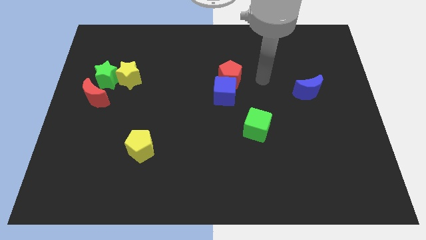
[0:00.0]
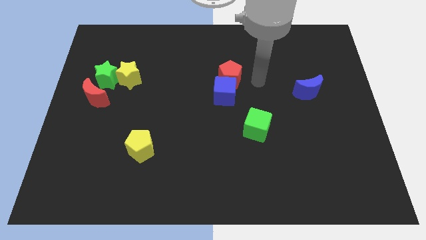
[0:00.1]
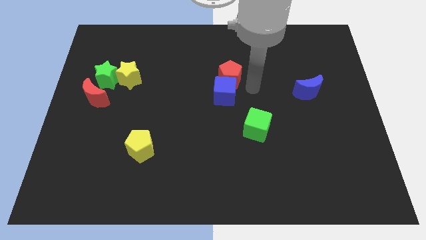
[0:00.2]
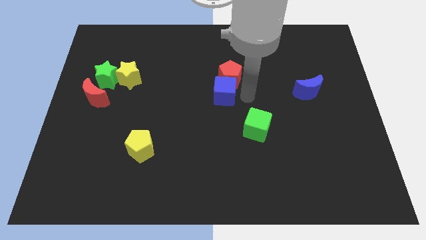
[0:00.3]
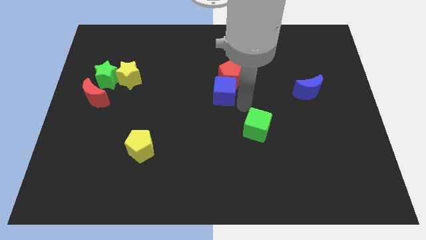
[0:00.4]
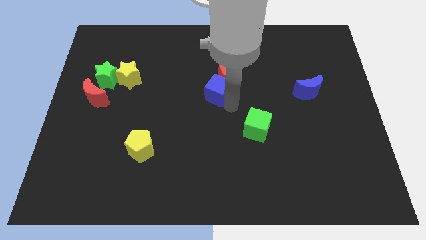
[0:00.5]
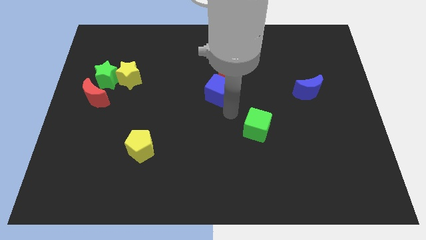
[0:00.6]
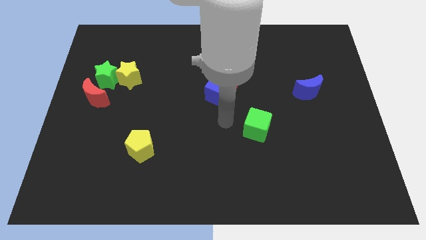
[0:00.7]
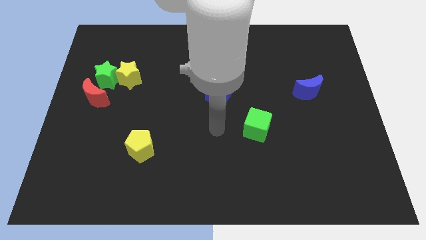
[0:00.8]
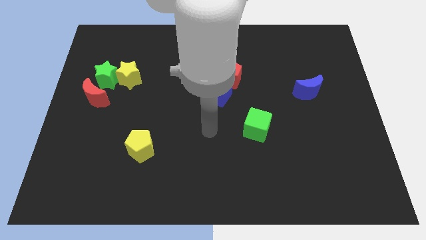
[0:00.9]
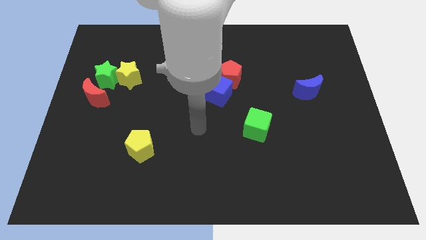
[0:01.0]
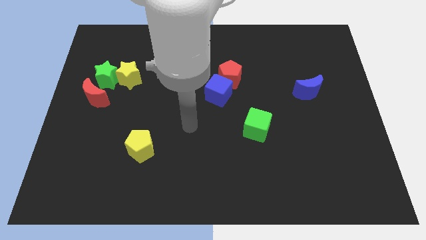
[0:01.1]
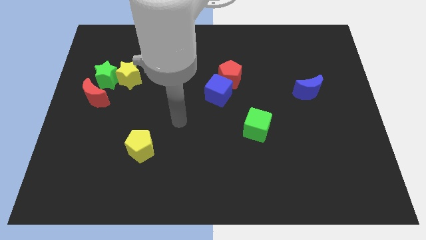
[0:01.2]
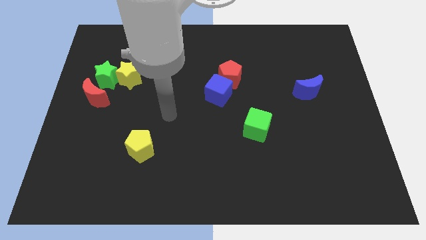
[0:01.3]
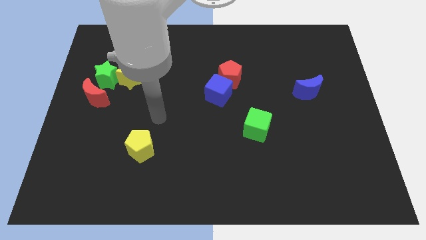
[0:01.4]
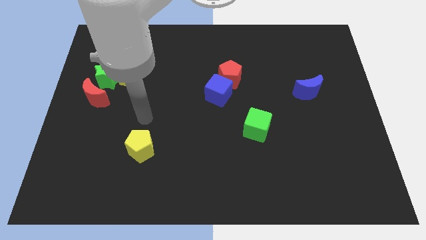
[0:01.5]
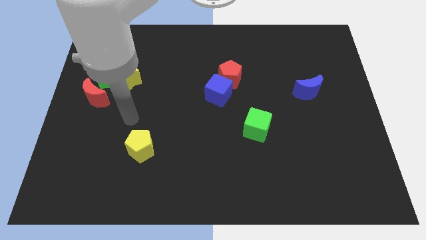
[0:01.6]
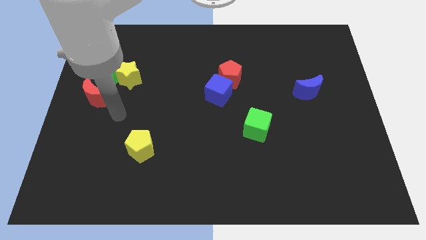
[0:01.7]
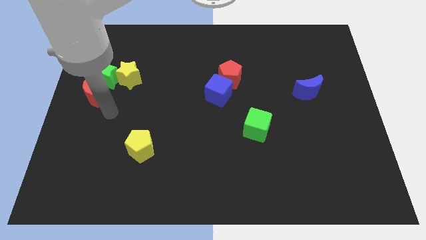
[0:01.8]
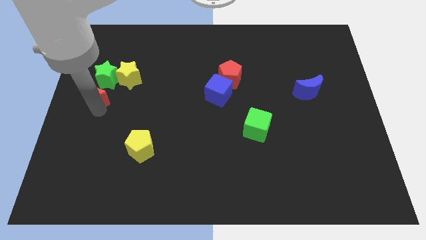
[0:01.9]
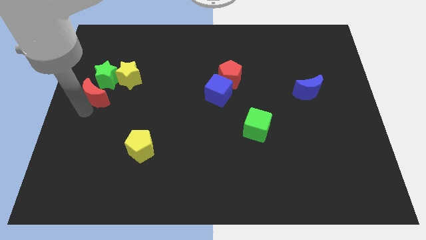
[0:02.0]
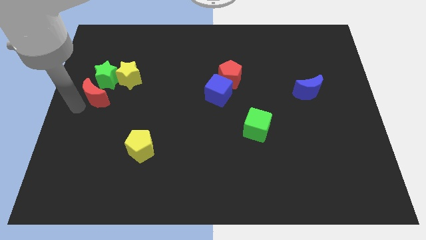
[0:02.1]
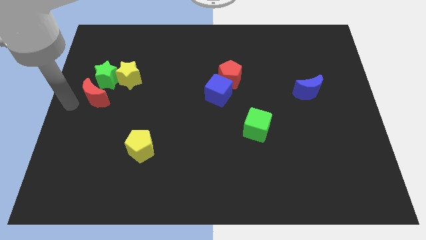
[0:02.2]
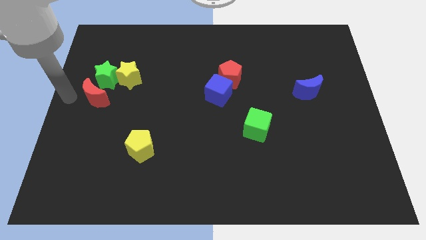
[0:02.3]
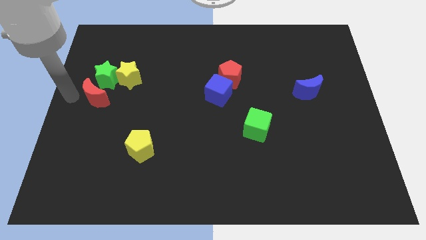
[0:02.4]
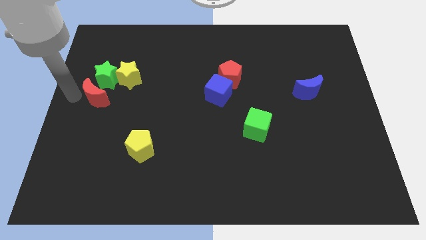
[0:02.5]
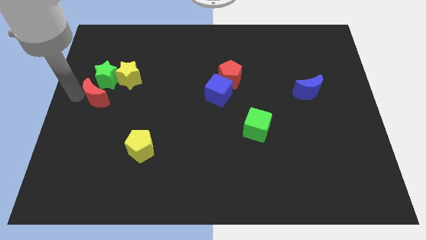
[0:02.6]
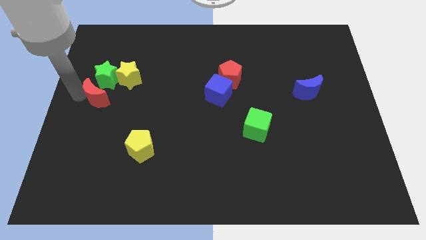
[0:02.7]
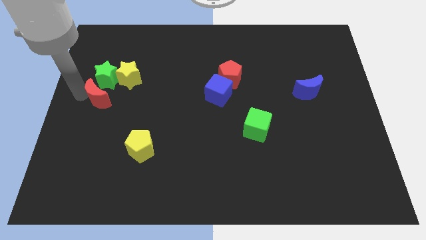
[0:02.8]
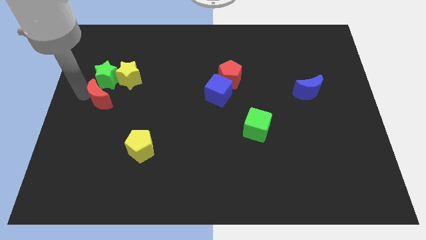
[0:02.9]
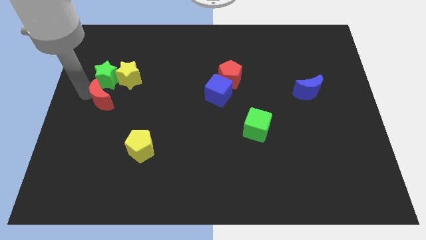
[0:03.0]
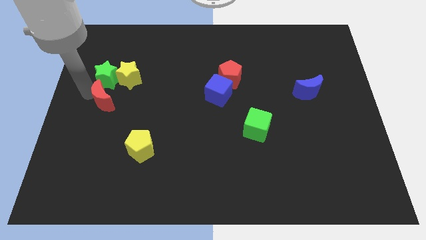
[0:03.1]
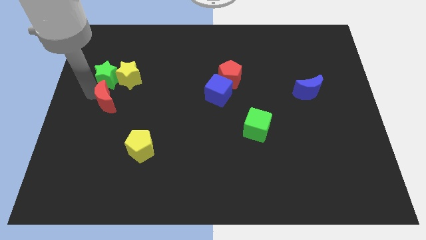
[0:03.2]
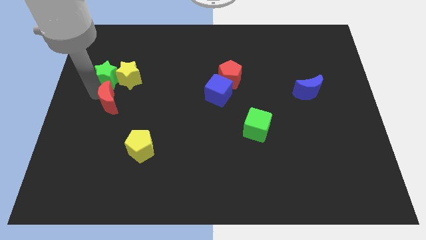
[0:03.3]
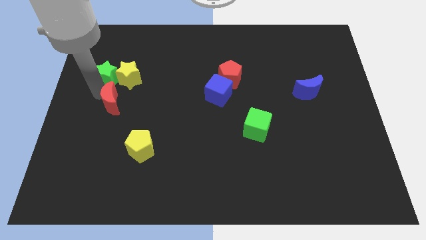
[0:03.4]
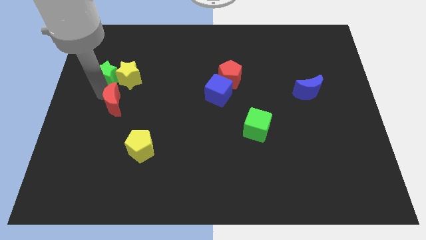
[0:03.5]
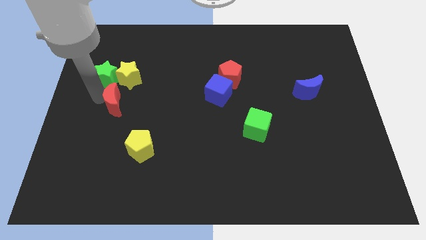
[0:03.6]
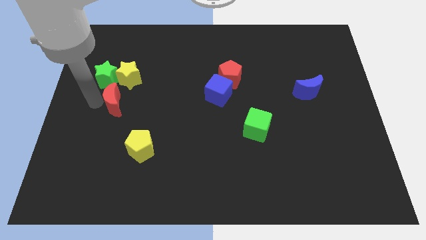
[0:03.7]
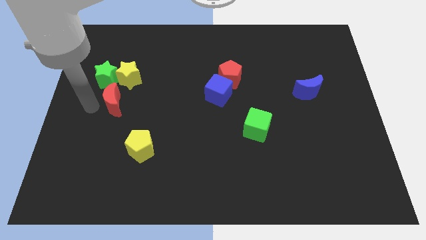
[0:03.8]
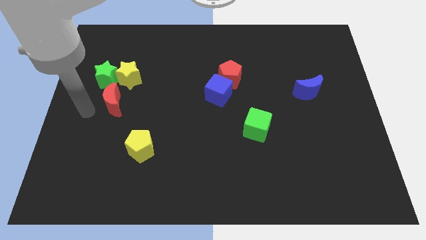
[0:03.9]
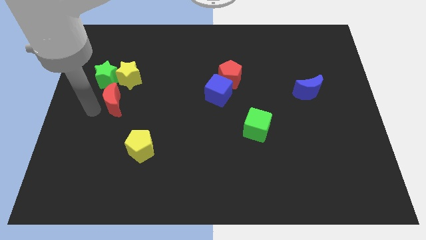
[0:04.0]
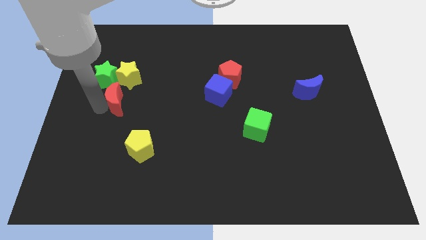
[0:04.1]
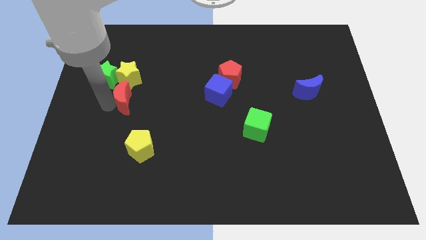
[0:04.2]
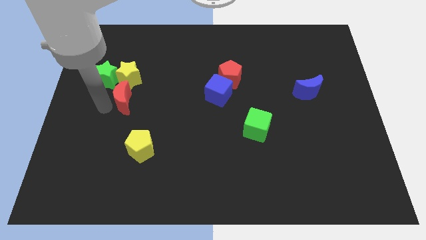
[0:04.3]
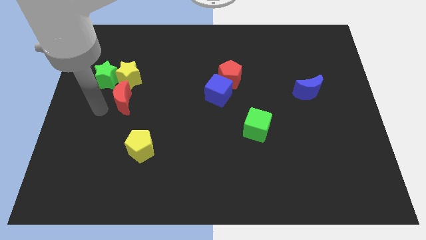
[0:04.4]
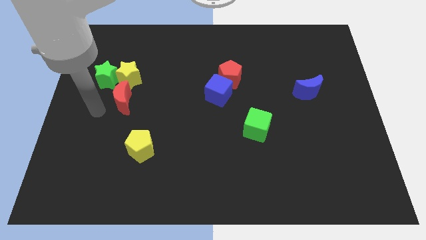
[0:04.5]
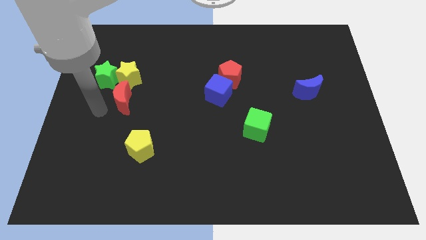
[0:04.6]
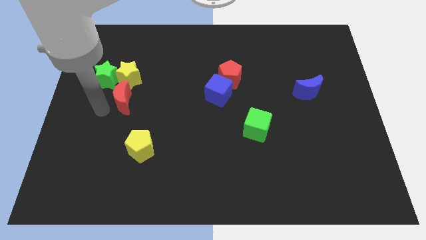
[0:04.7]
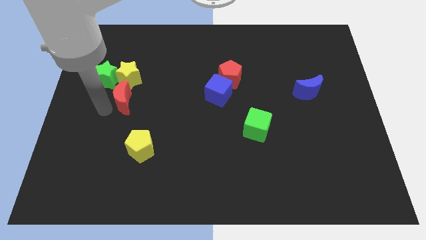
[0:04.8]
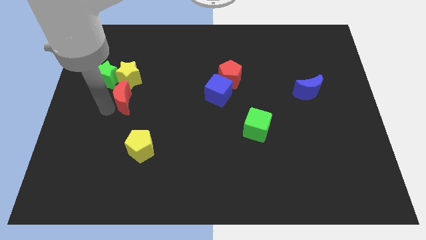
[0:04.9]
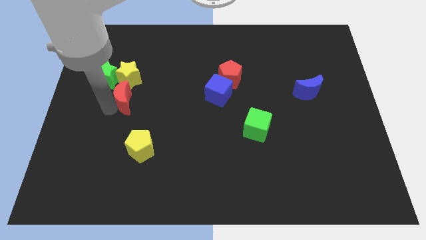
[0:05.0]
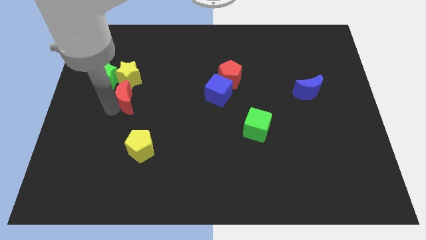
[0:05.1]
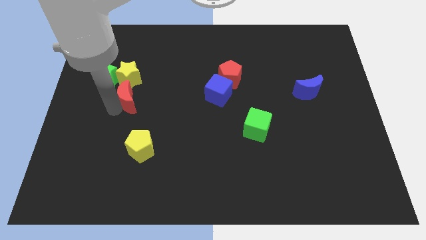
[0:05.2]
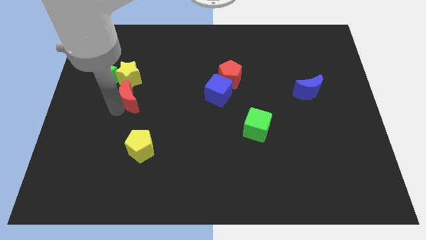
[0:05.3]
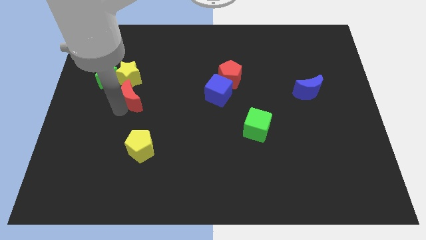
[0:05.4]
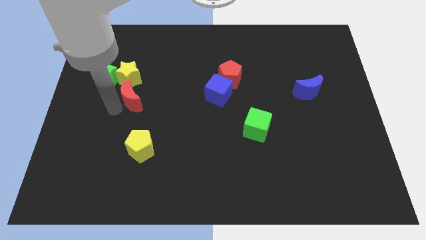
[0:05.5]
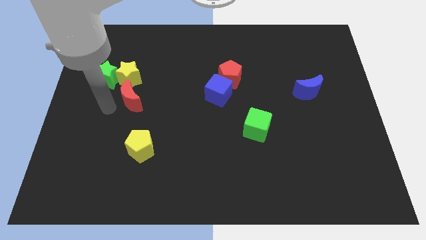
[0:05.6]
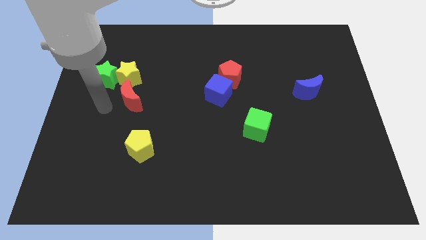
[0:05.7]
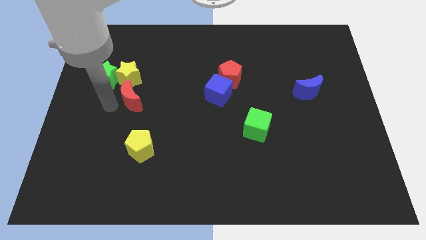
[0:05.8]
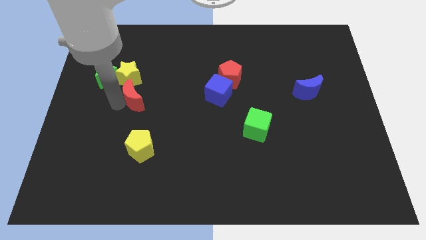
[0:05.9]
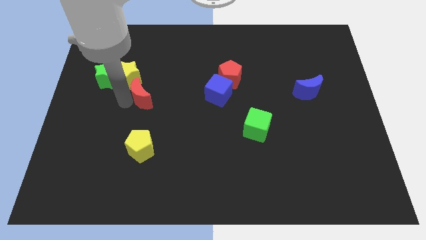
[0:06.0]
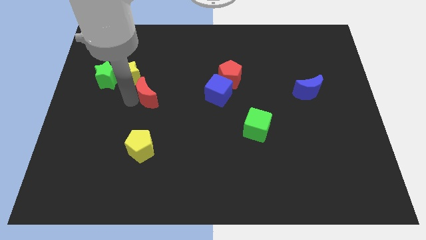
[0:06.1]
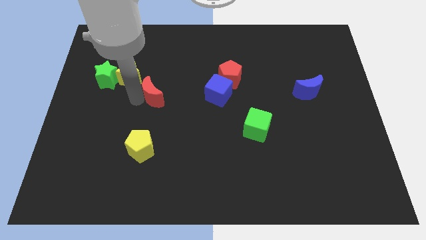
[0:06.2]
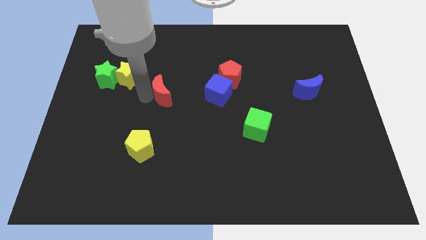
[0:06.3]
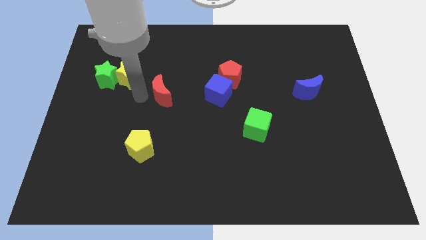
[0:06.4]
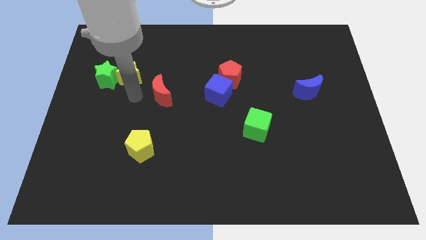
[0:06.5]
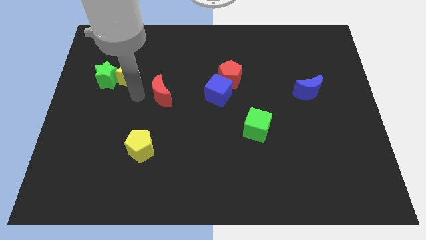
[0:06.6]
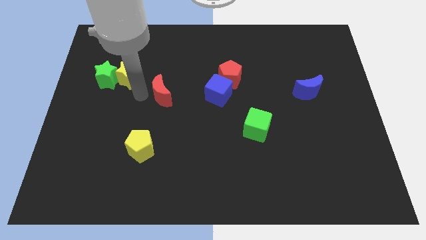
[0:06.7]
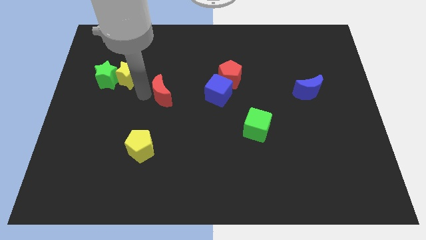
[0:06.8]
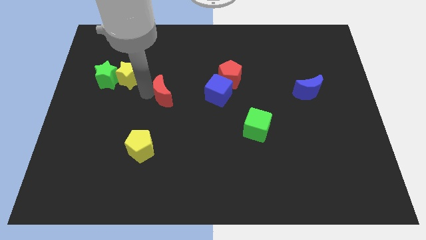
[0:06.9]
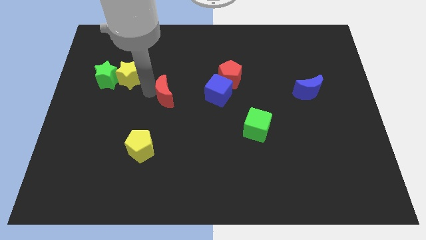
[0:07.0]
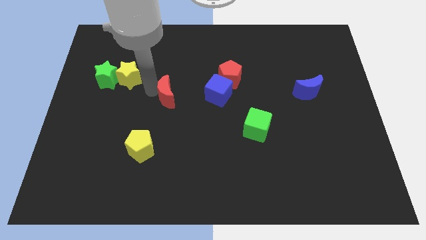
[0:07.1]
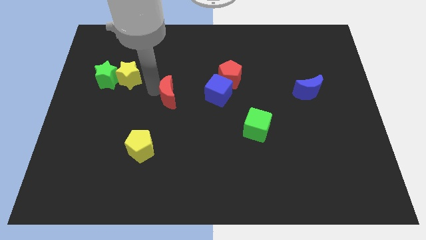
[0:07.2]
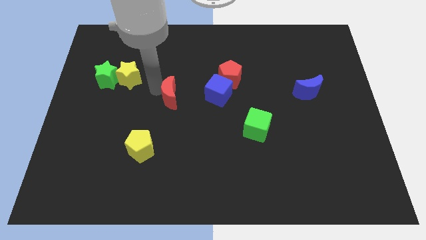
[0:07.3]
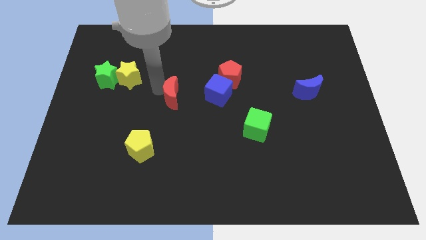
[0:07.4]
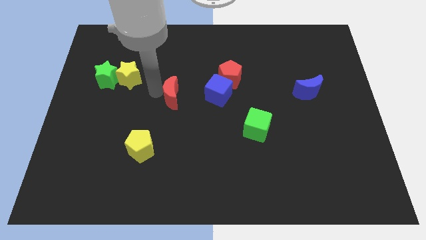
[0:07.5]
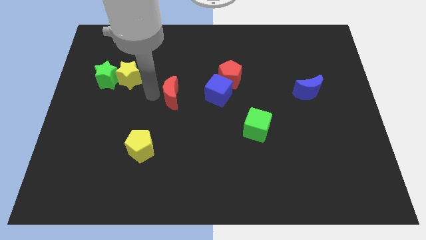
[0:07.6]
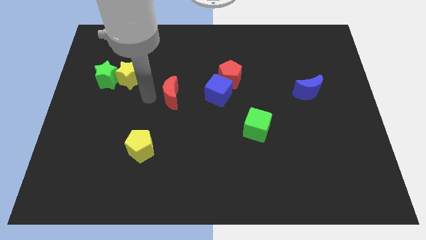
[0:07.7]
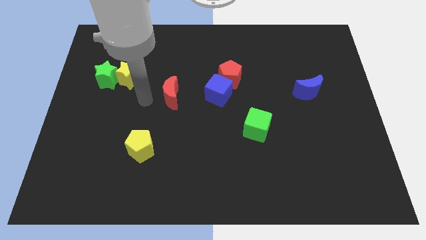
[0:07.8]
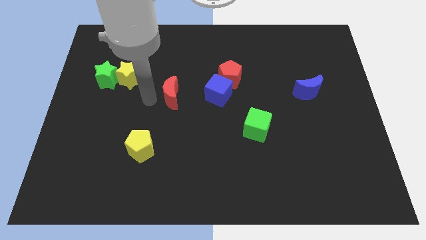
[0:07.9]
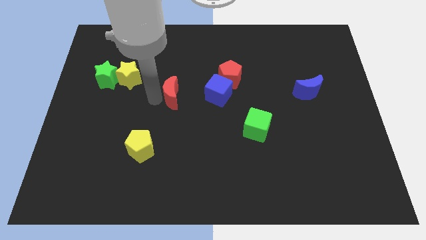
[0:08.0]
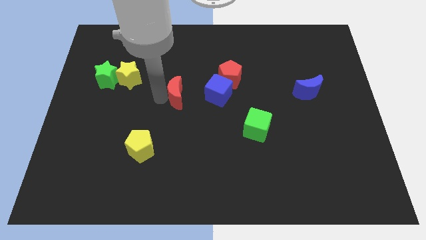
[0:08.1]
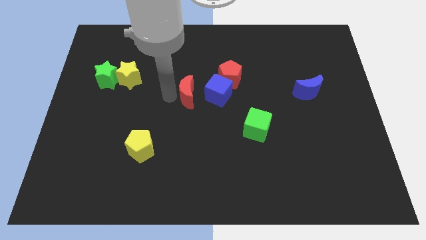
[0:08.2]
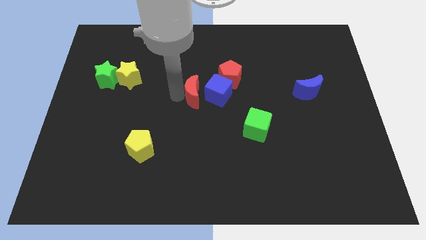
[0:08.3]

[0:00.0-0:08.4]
move the red moon next to the blue cube
